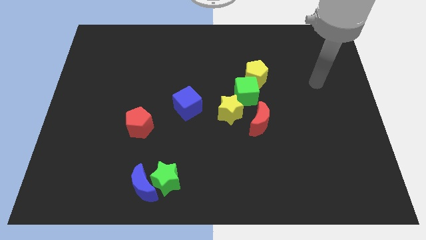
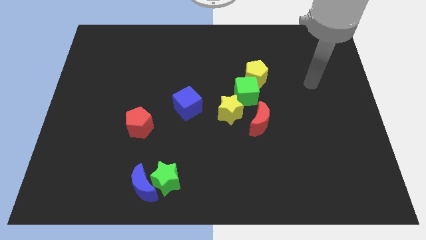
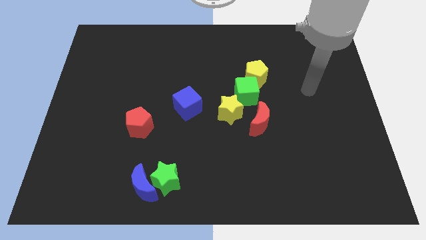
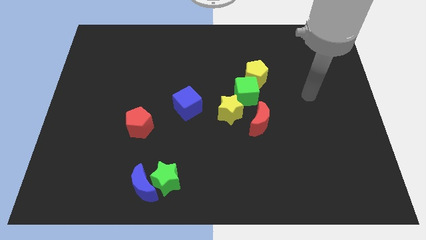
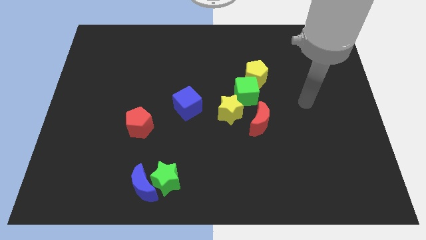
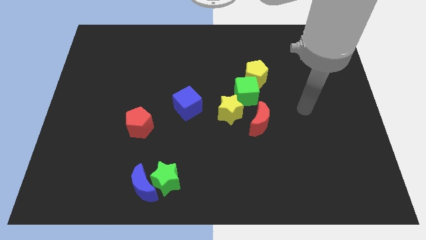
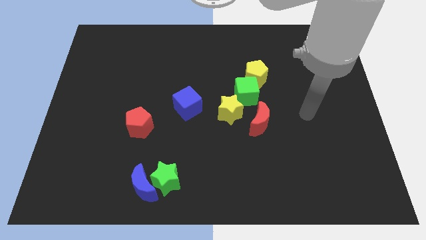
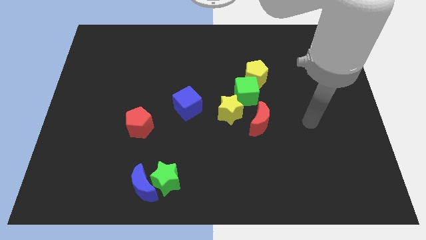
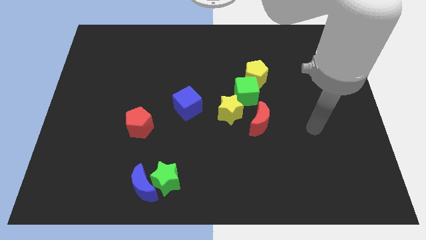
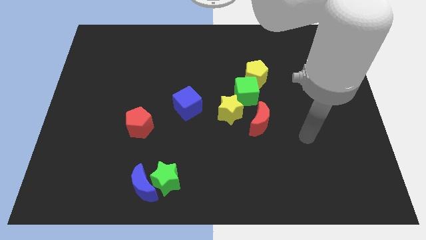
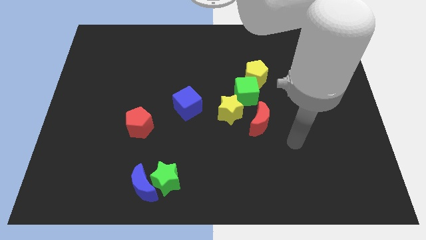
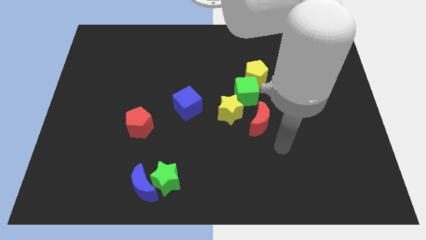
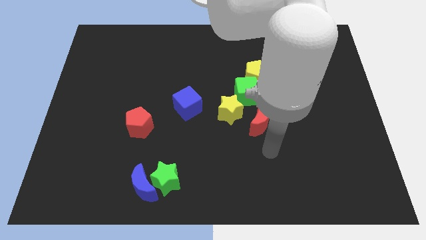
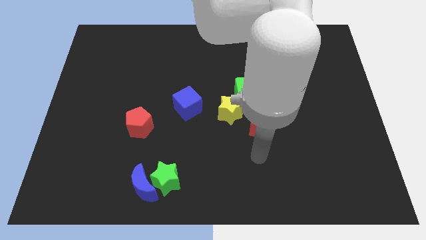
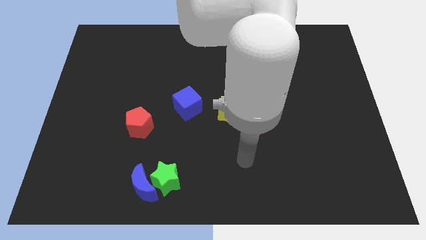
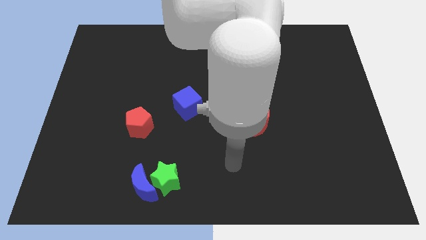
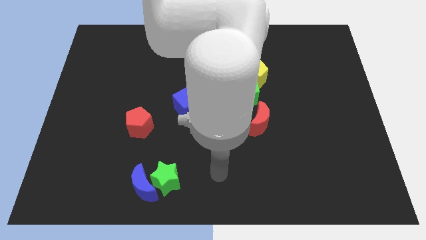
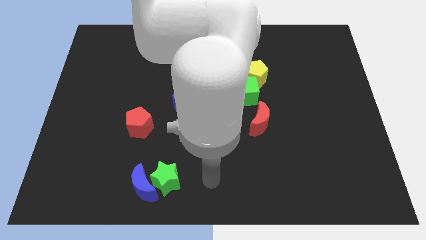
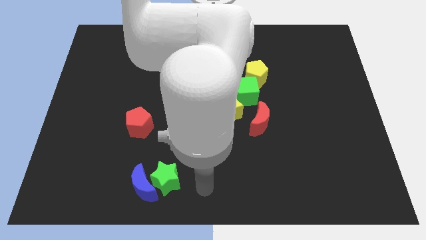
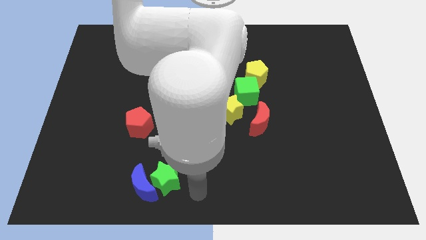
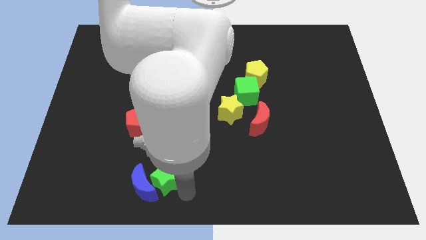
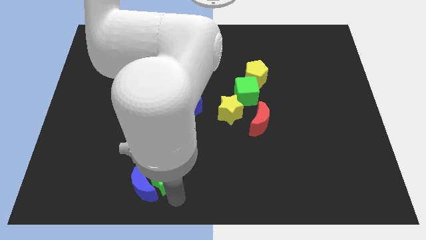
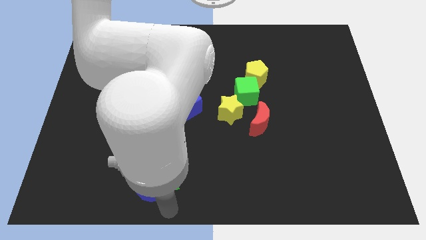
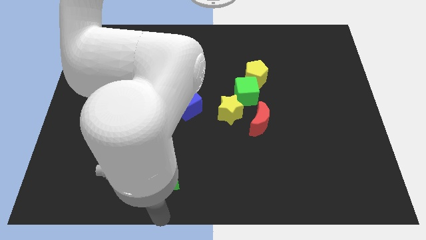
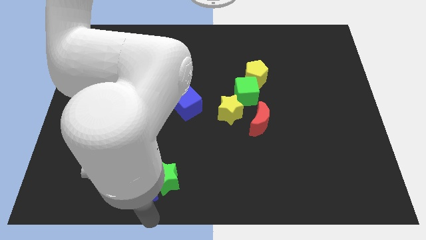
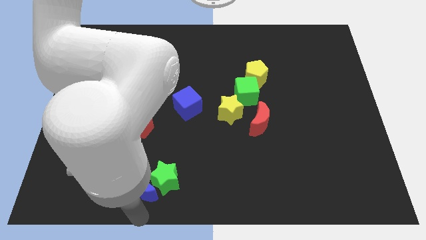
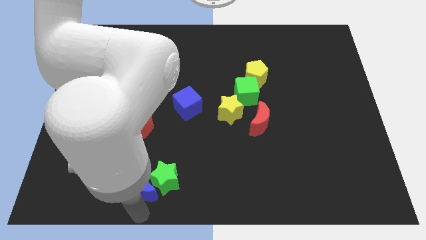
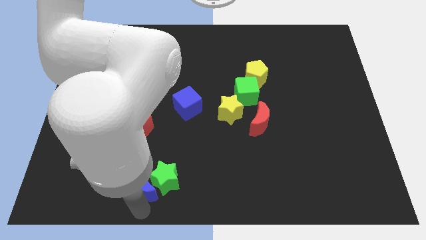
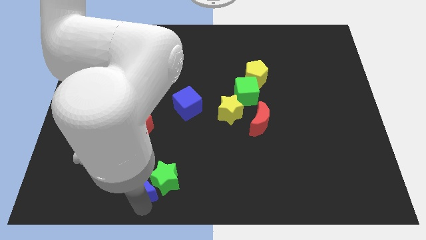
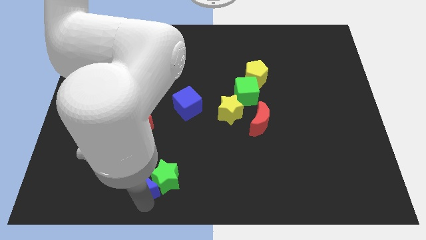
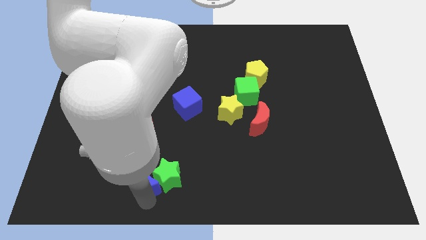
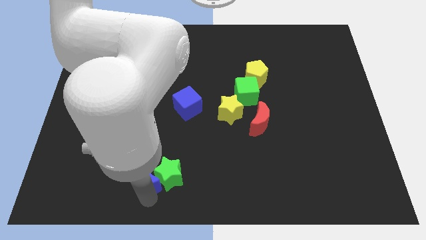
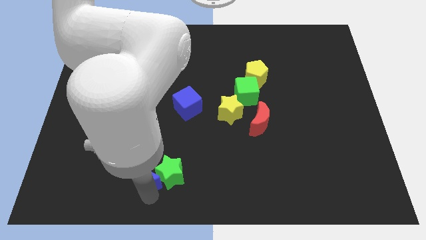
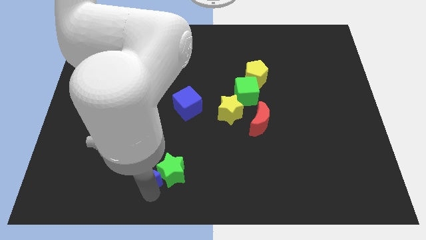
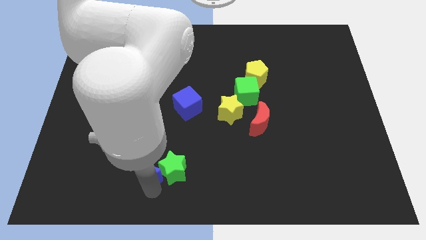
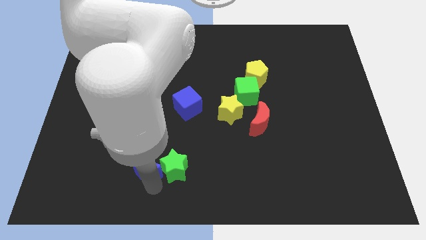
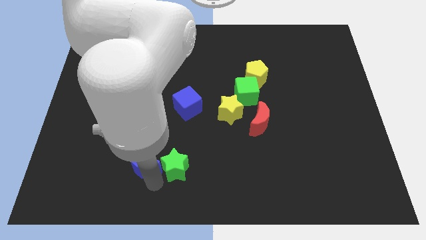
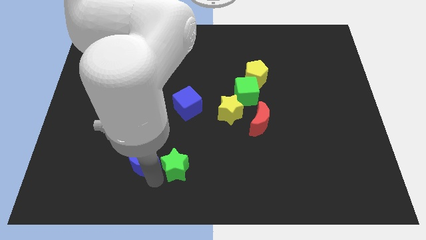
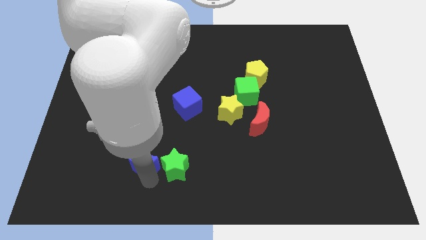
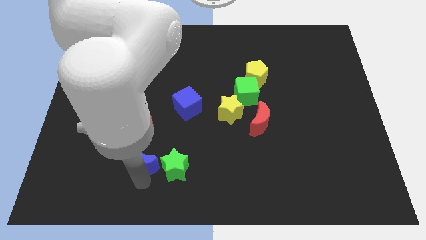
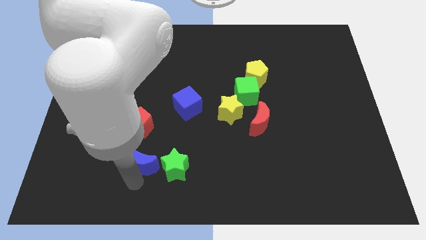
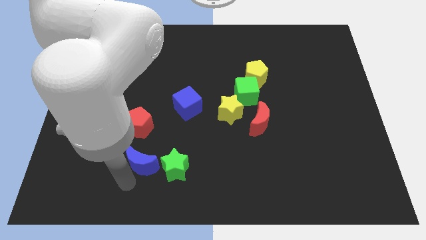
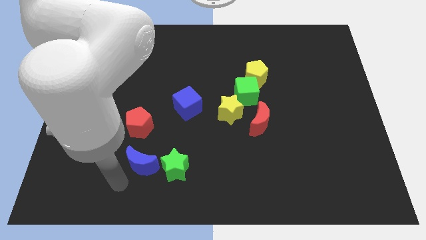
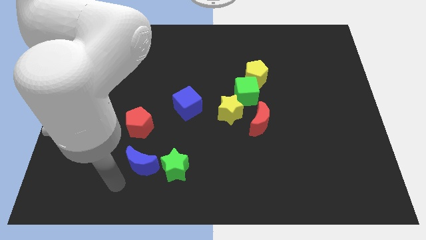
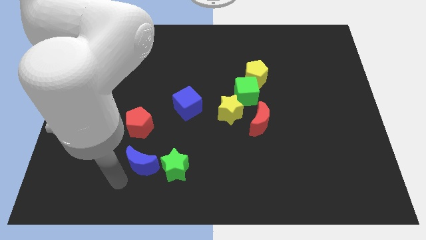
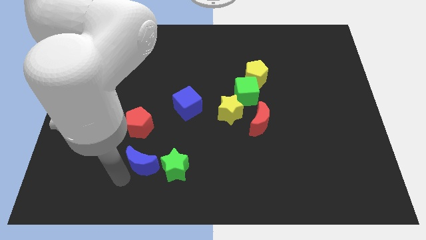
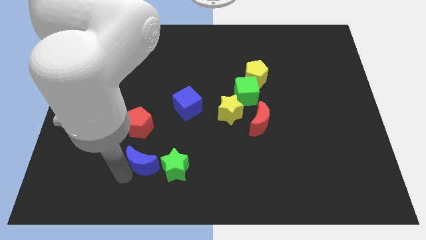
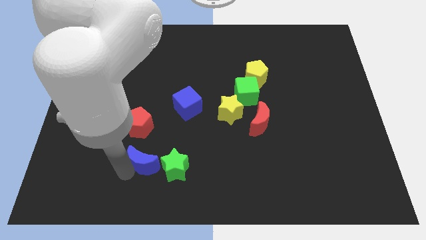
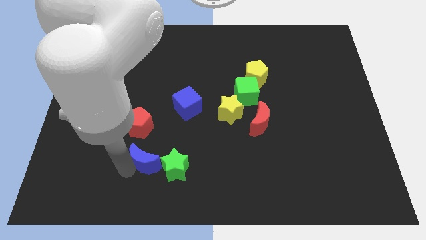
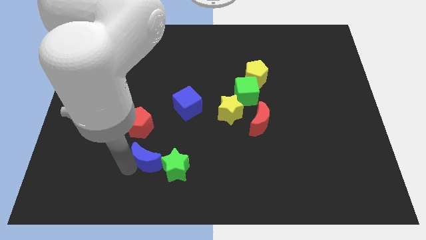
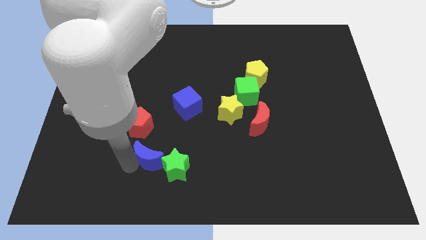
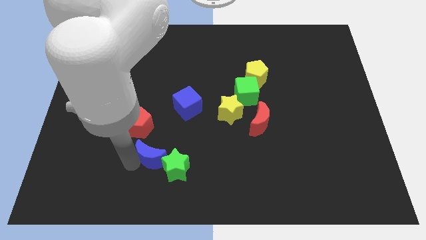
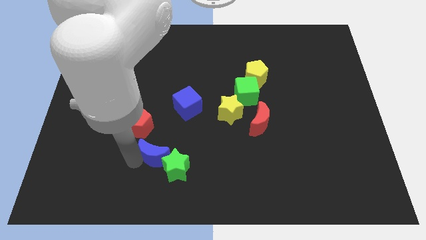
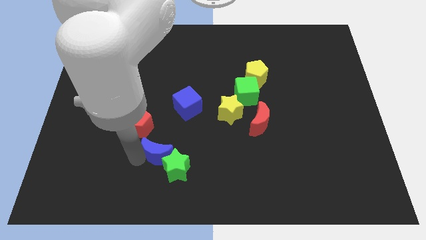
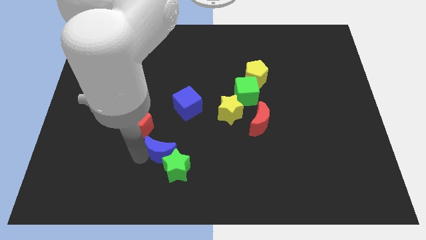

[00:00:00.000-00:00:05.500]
slide the blue moon a little bit diagonally upwards and to the right

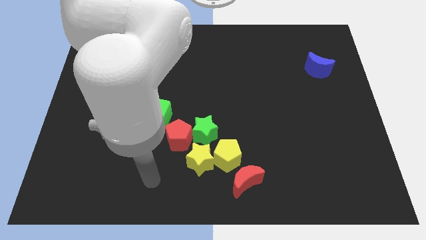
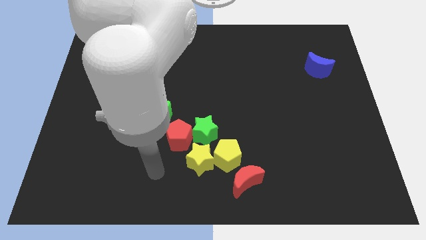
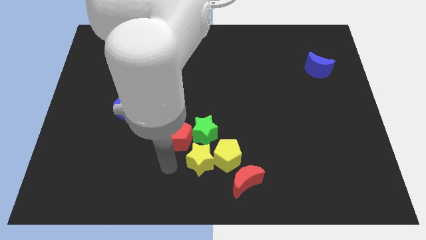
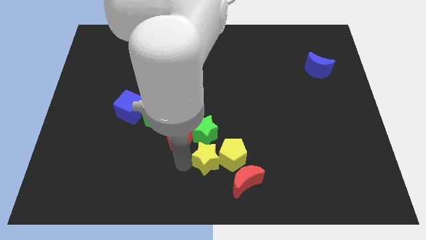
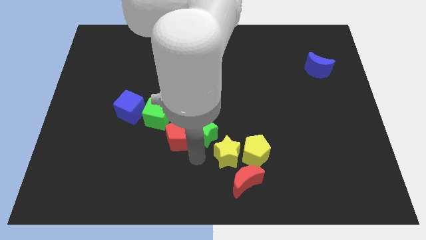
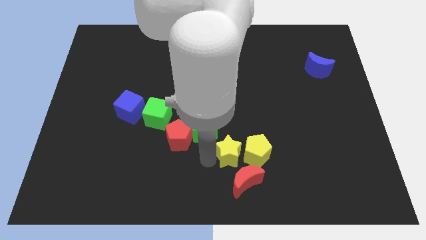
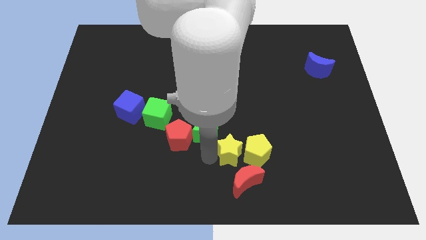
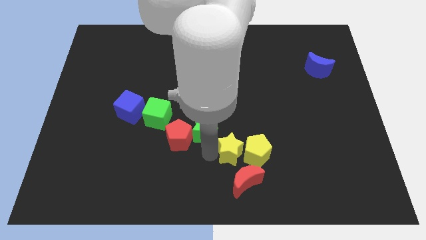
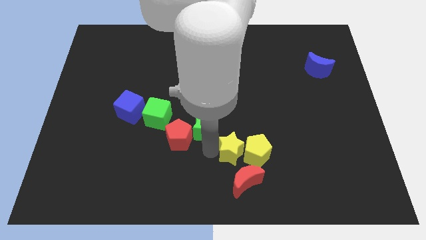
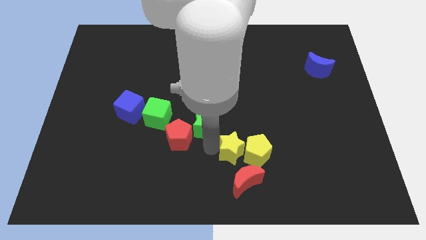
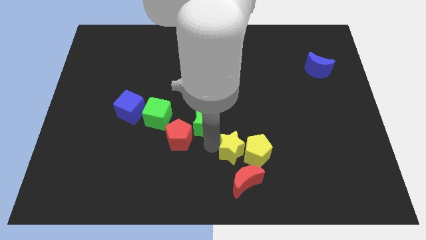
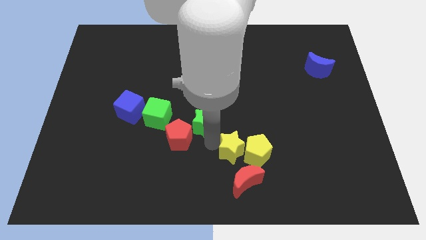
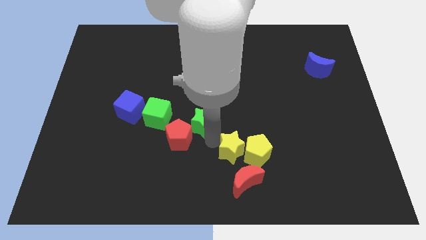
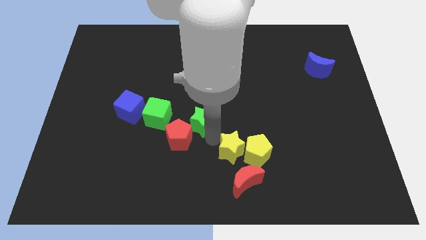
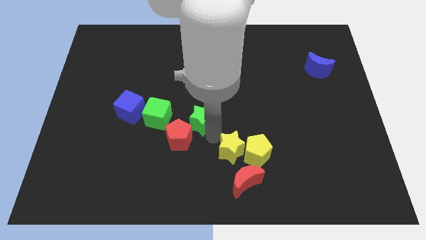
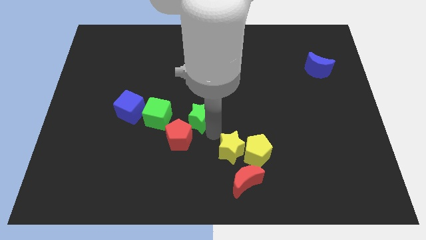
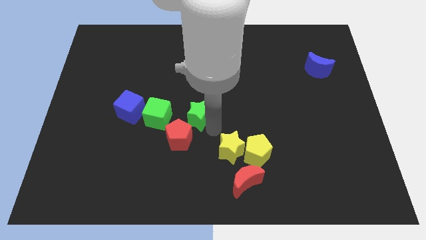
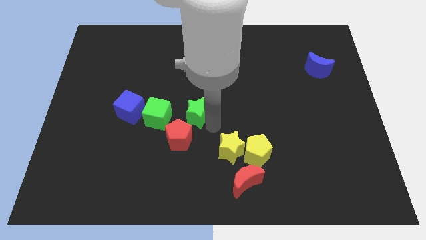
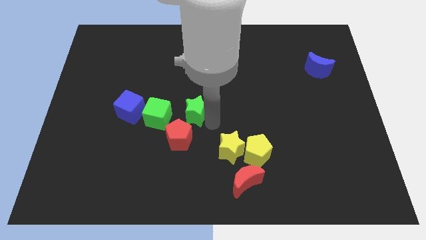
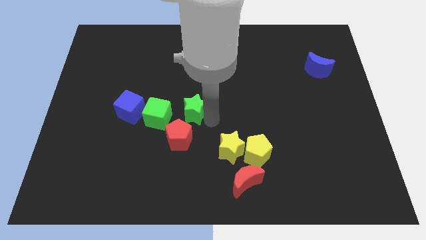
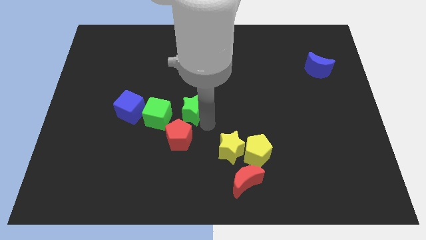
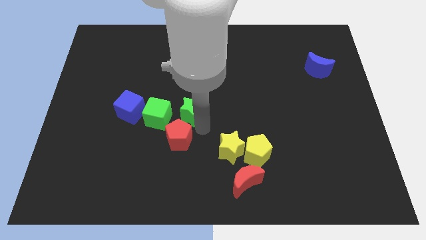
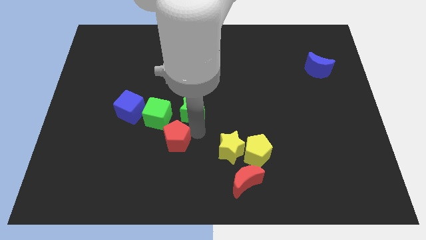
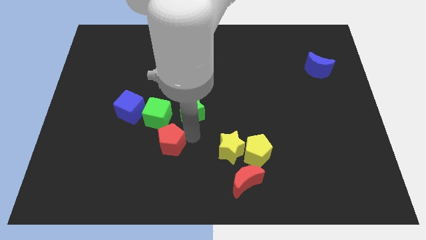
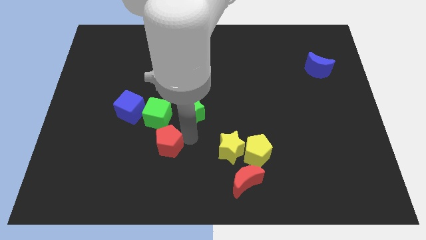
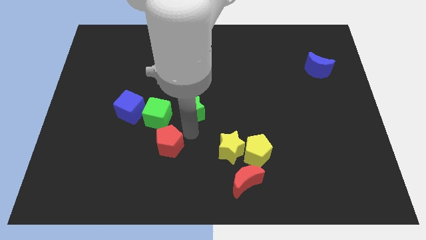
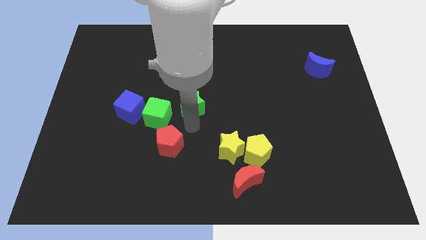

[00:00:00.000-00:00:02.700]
move the green star up a little bit
